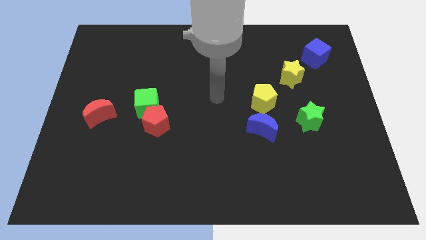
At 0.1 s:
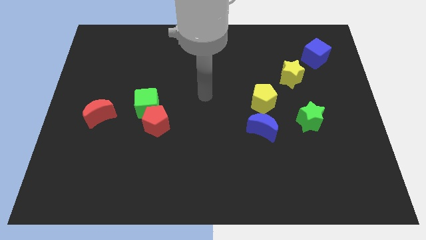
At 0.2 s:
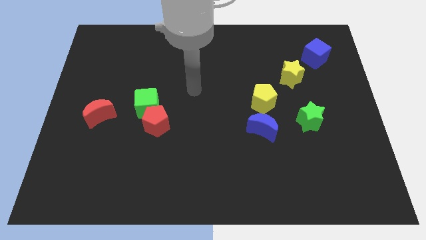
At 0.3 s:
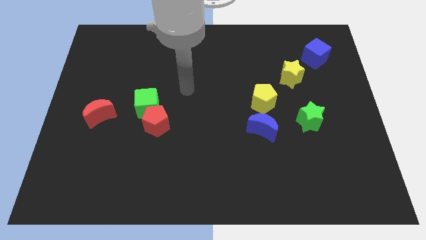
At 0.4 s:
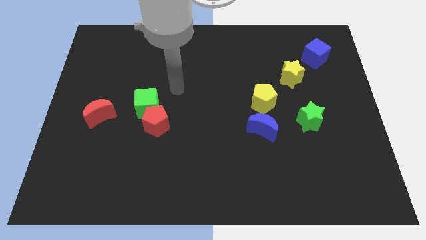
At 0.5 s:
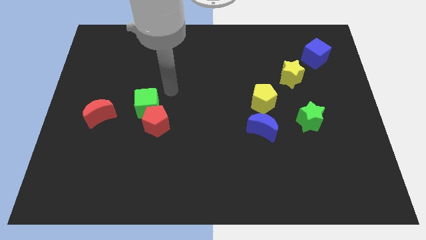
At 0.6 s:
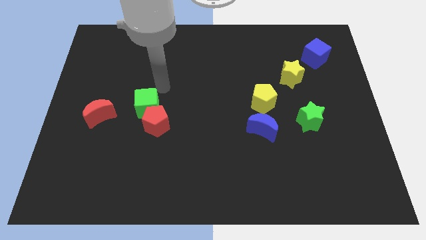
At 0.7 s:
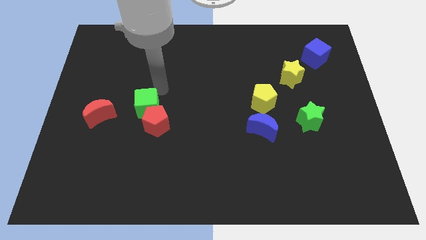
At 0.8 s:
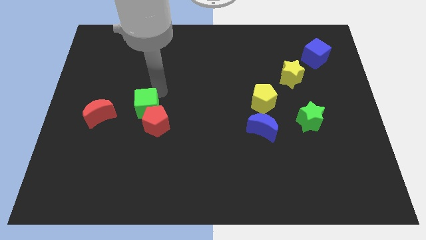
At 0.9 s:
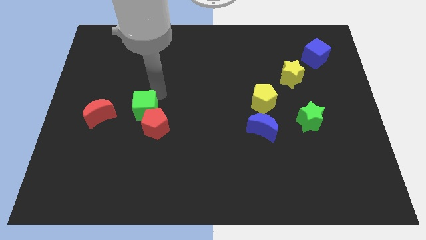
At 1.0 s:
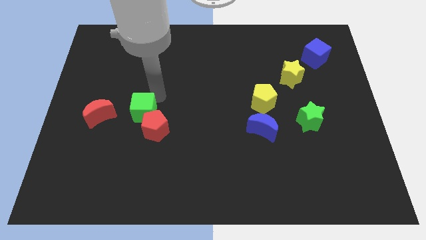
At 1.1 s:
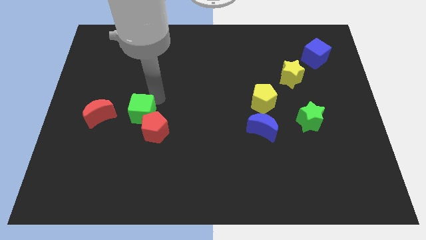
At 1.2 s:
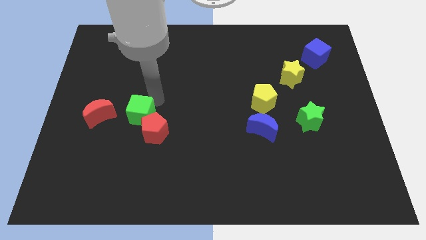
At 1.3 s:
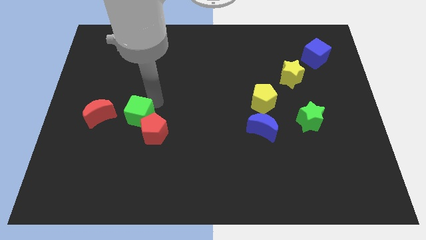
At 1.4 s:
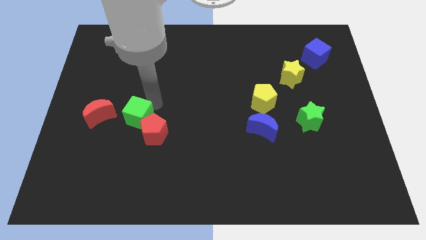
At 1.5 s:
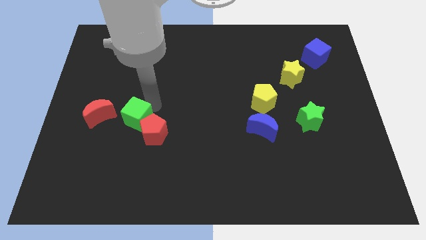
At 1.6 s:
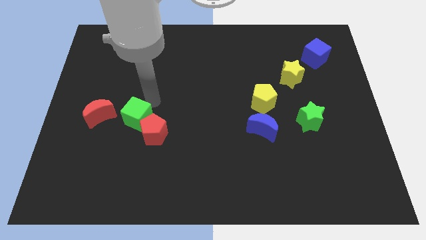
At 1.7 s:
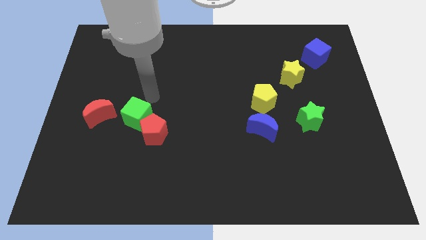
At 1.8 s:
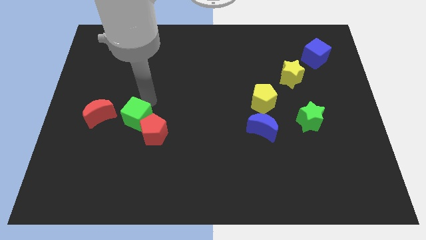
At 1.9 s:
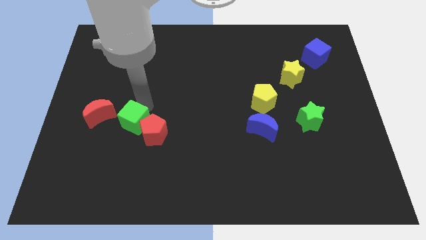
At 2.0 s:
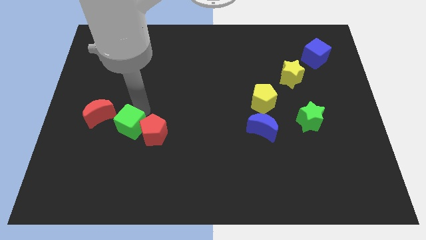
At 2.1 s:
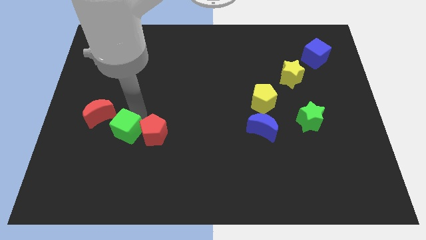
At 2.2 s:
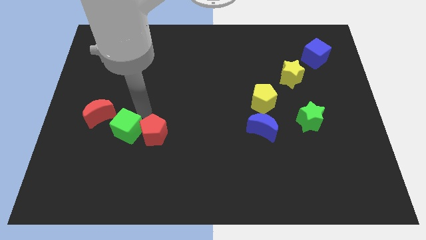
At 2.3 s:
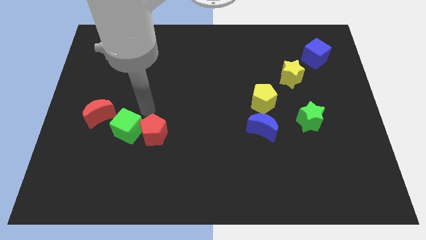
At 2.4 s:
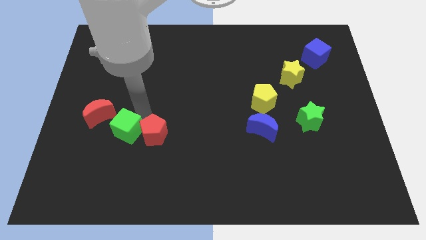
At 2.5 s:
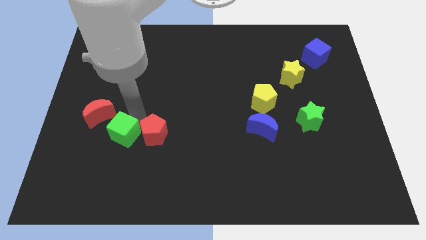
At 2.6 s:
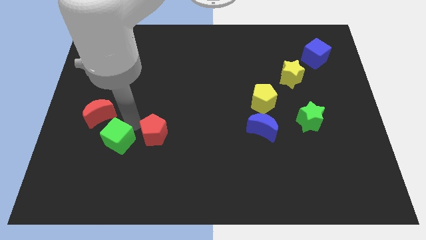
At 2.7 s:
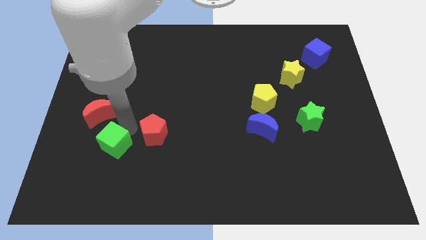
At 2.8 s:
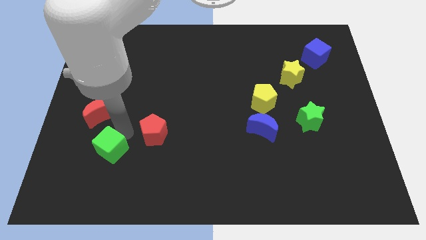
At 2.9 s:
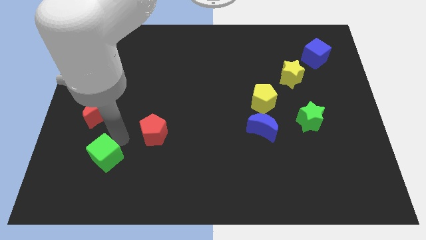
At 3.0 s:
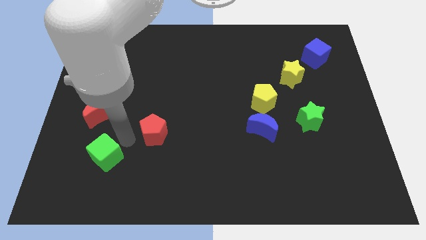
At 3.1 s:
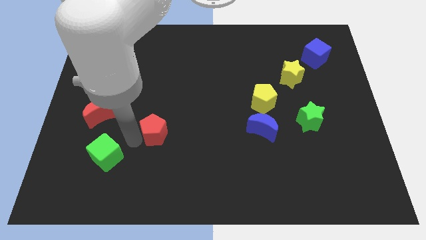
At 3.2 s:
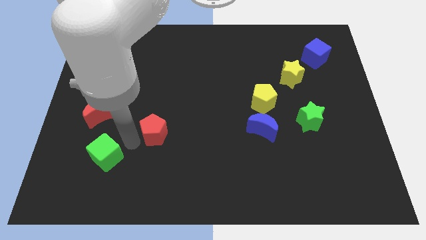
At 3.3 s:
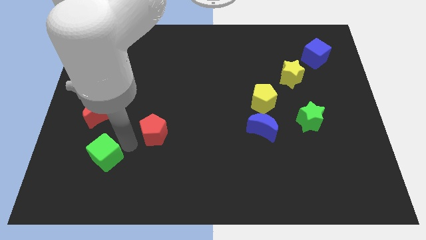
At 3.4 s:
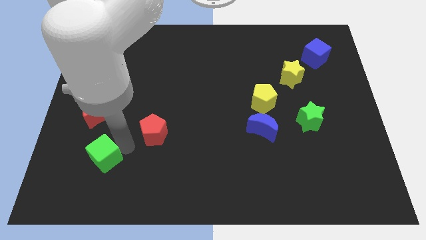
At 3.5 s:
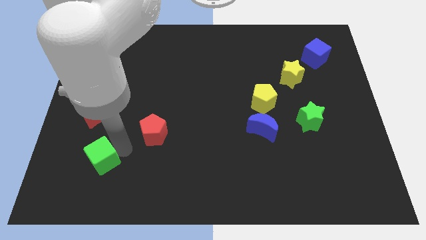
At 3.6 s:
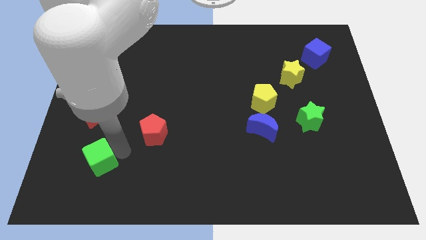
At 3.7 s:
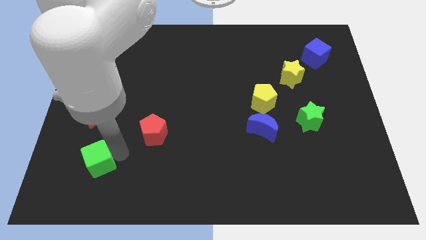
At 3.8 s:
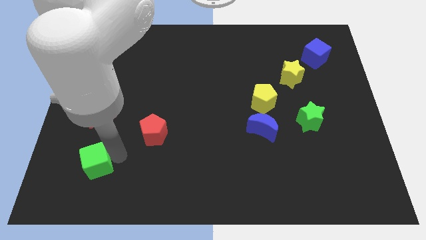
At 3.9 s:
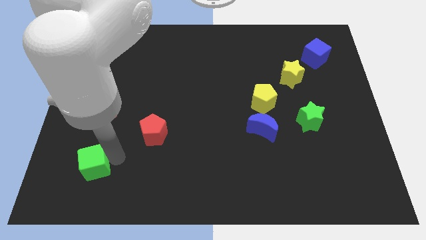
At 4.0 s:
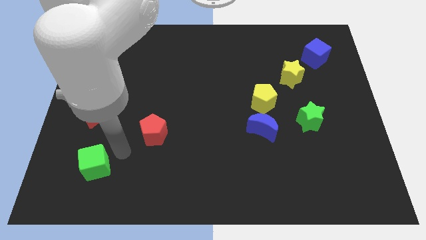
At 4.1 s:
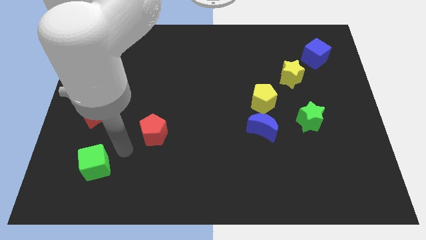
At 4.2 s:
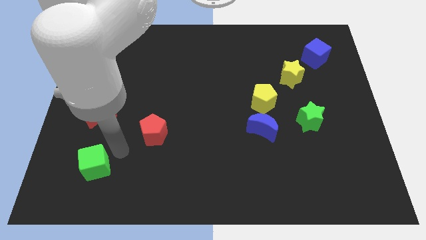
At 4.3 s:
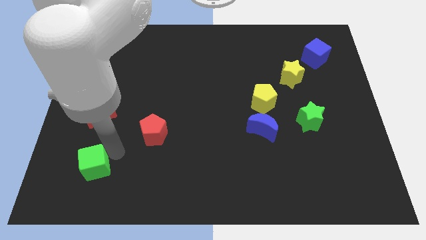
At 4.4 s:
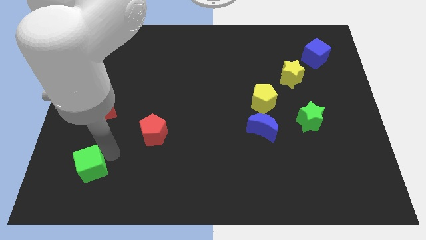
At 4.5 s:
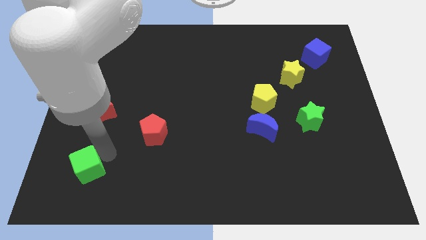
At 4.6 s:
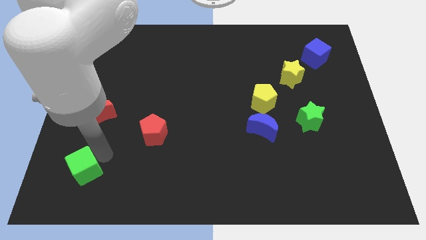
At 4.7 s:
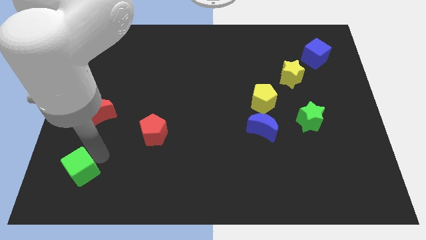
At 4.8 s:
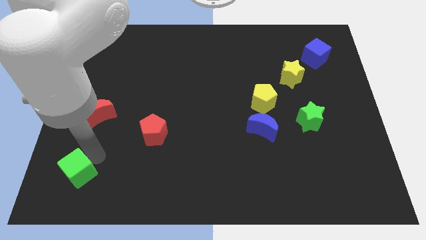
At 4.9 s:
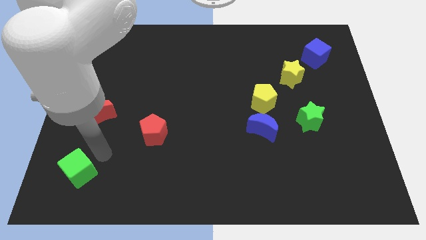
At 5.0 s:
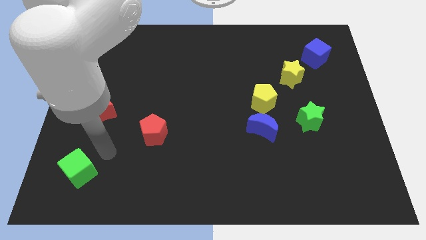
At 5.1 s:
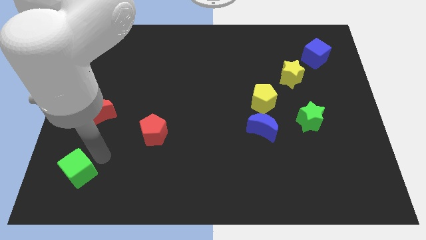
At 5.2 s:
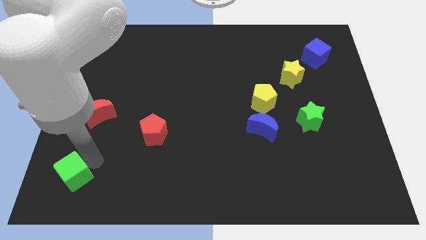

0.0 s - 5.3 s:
move the green cube to the lower left corner

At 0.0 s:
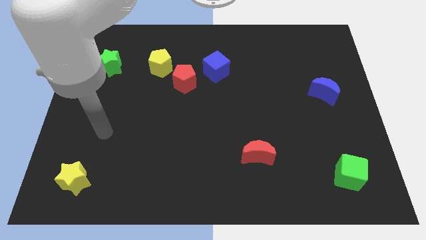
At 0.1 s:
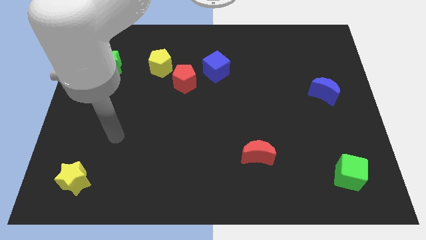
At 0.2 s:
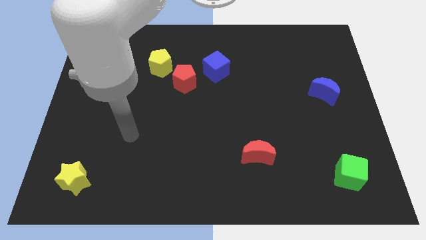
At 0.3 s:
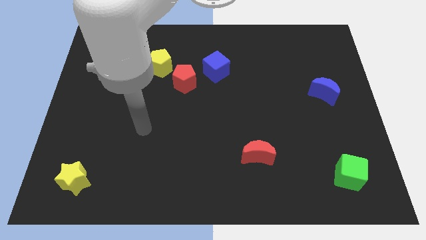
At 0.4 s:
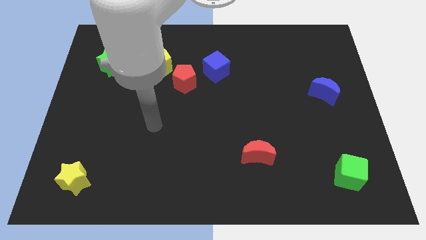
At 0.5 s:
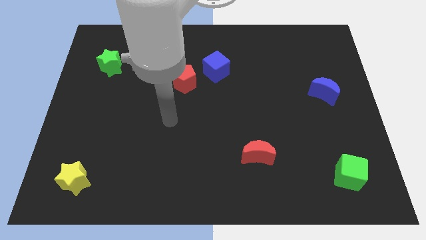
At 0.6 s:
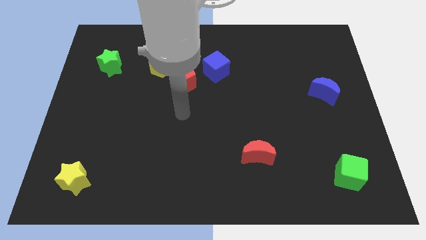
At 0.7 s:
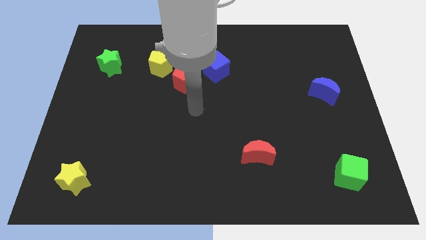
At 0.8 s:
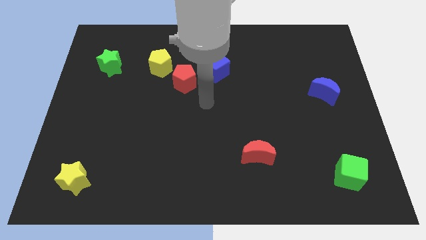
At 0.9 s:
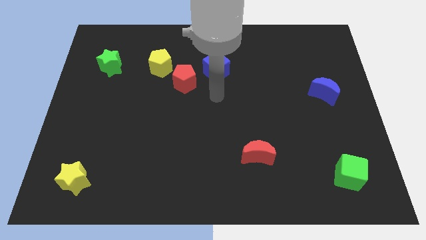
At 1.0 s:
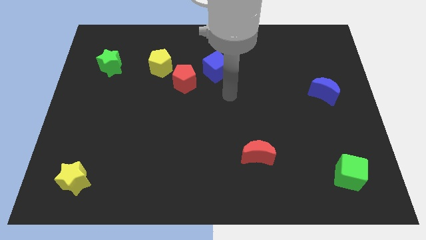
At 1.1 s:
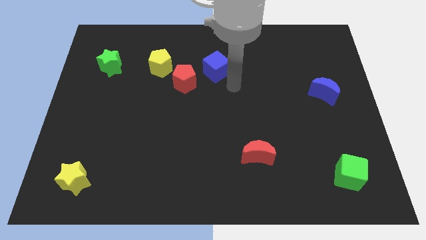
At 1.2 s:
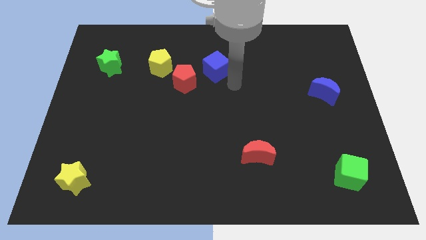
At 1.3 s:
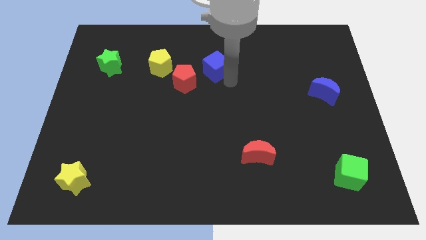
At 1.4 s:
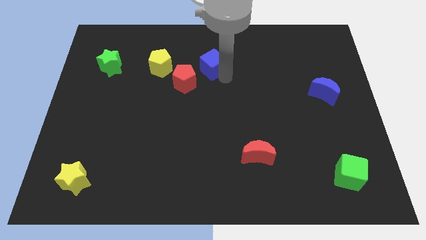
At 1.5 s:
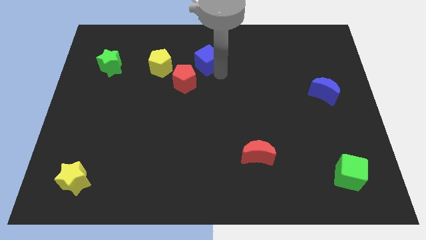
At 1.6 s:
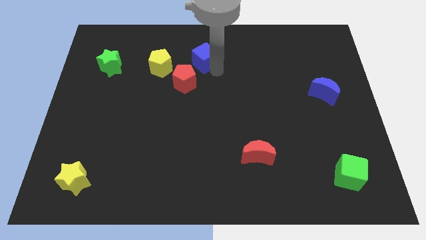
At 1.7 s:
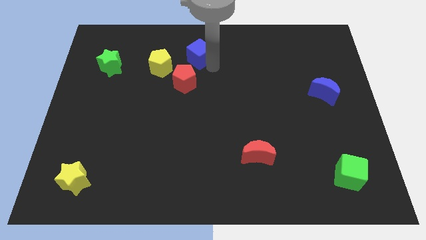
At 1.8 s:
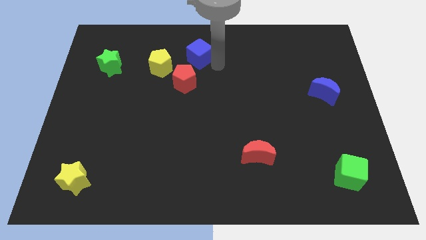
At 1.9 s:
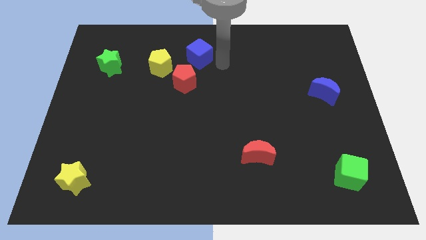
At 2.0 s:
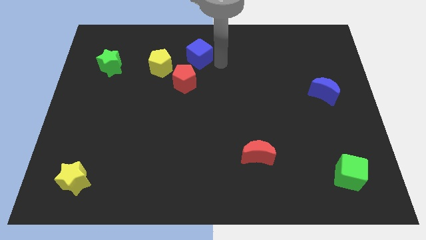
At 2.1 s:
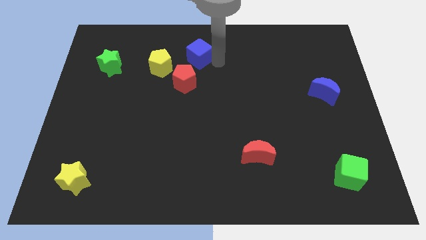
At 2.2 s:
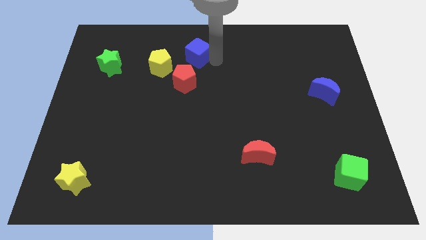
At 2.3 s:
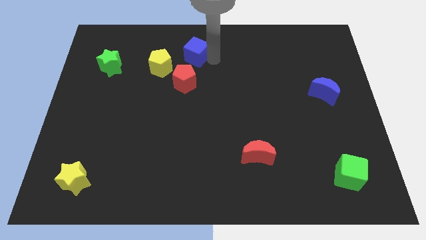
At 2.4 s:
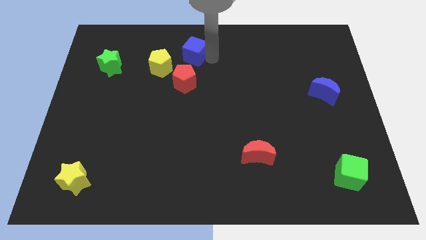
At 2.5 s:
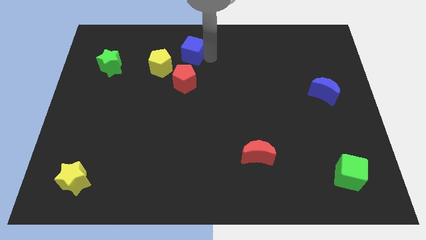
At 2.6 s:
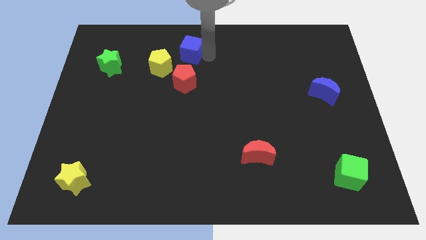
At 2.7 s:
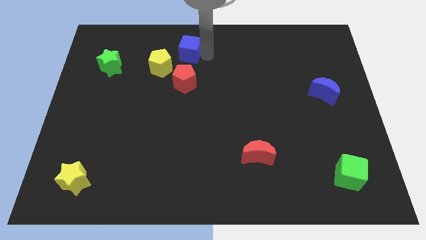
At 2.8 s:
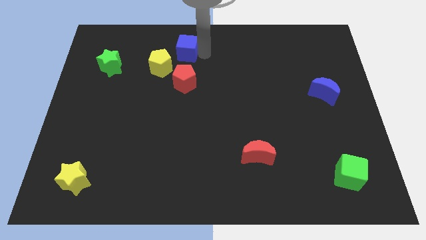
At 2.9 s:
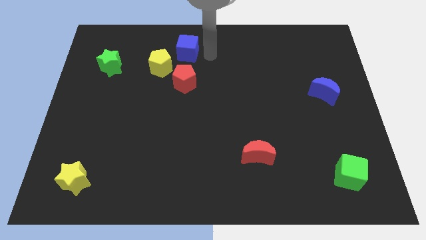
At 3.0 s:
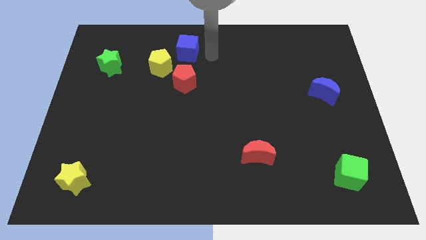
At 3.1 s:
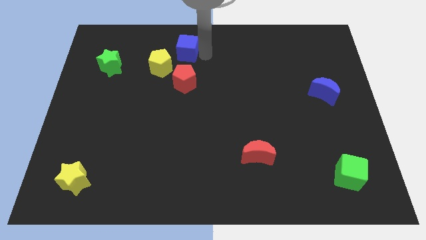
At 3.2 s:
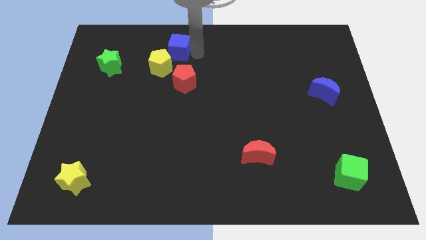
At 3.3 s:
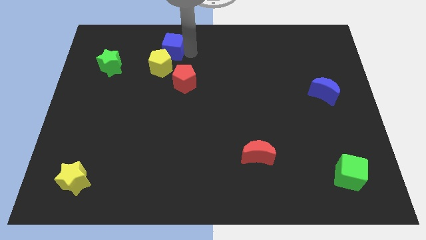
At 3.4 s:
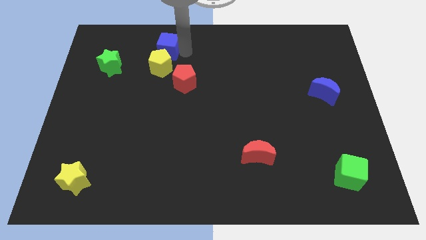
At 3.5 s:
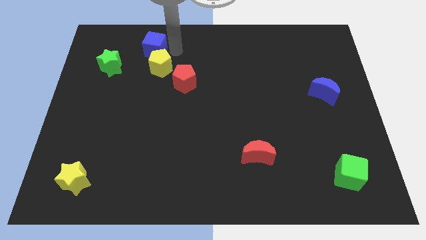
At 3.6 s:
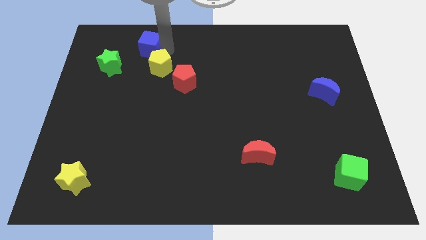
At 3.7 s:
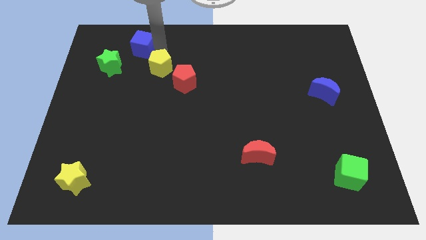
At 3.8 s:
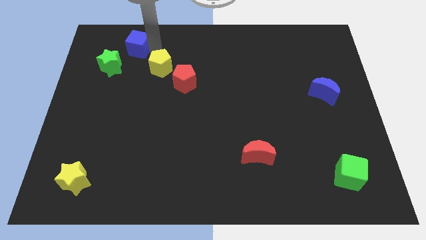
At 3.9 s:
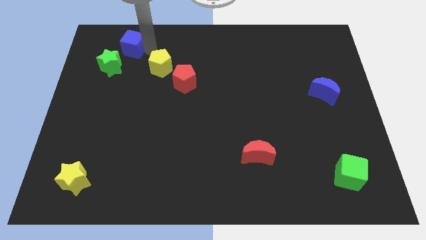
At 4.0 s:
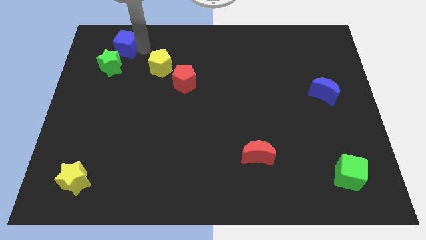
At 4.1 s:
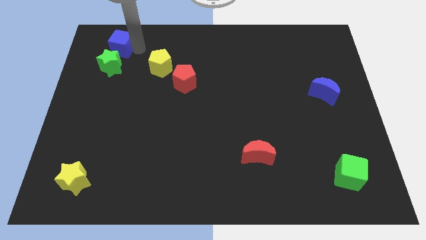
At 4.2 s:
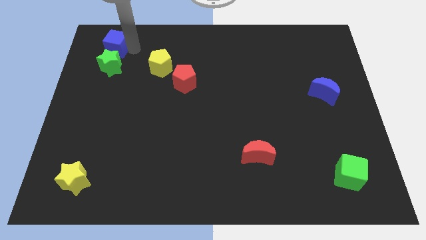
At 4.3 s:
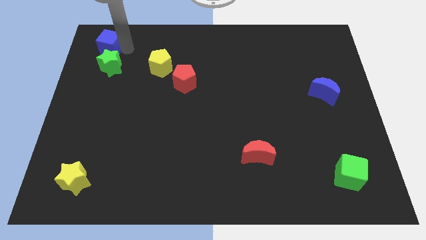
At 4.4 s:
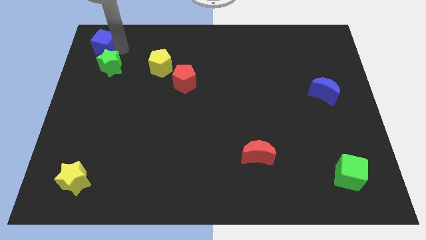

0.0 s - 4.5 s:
push the blue cube to the upper left corner
